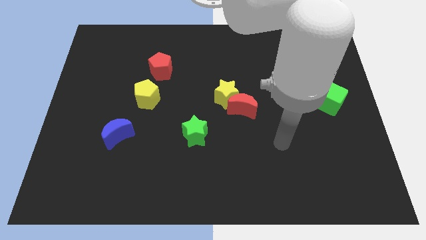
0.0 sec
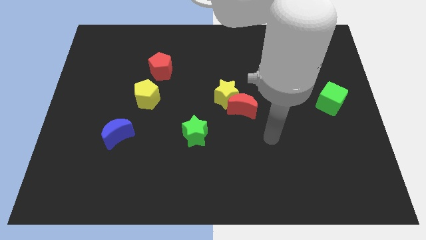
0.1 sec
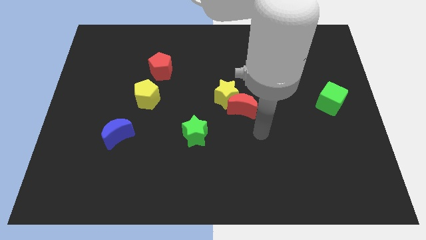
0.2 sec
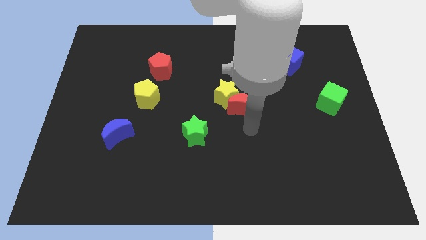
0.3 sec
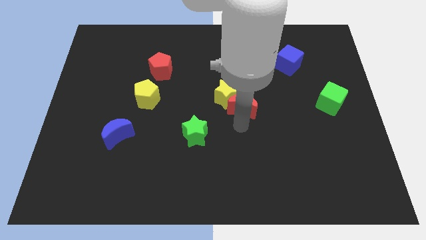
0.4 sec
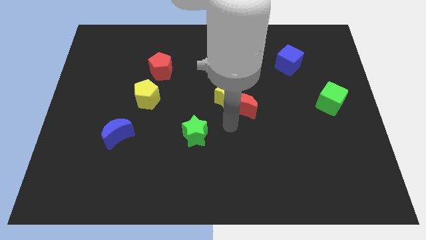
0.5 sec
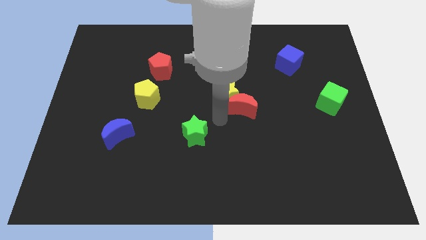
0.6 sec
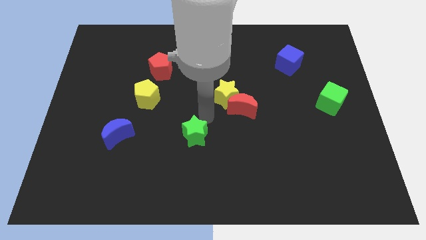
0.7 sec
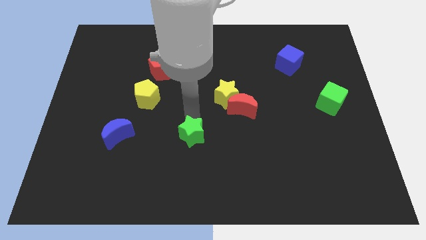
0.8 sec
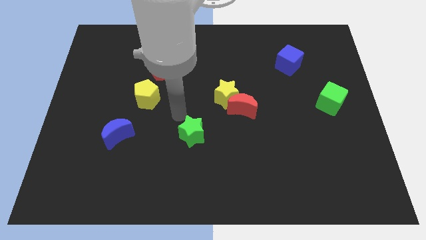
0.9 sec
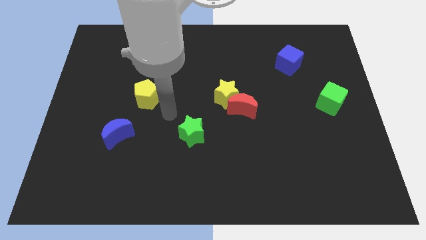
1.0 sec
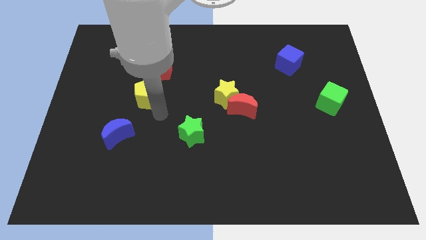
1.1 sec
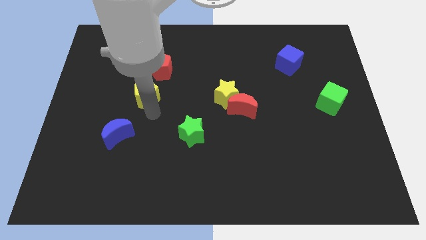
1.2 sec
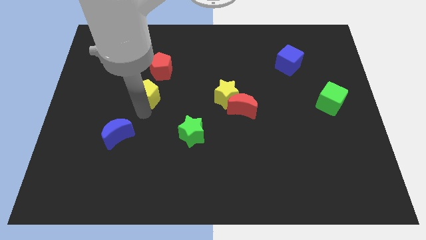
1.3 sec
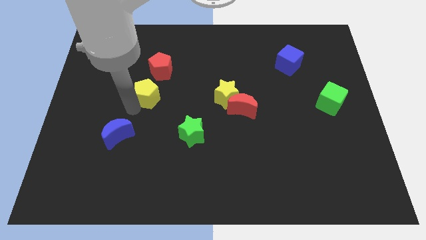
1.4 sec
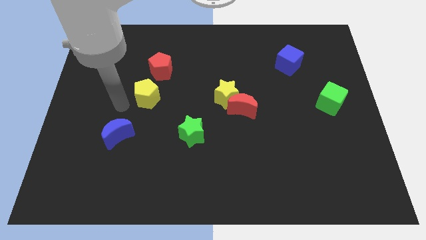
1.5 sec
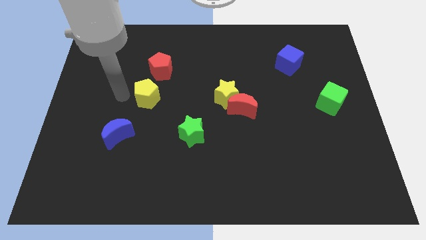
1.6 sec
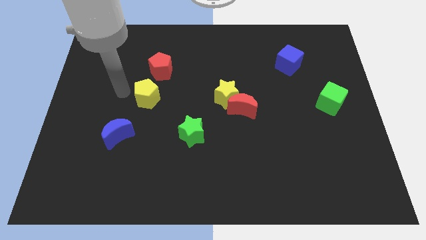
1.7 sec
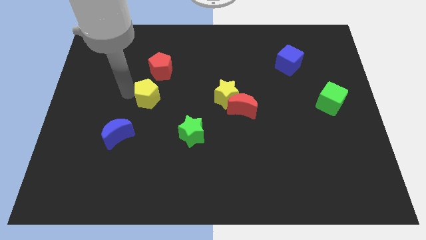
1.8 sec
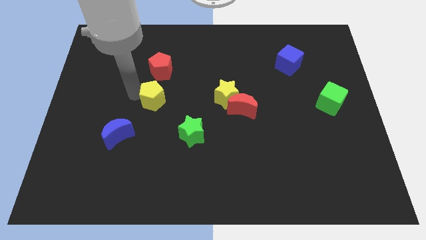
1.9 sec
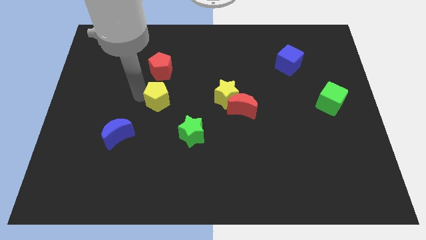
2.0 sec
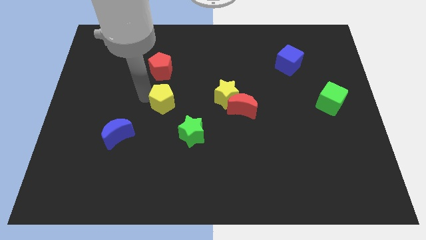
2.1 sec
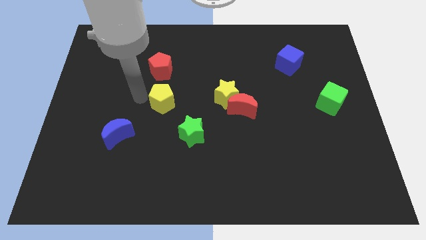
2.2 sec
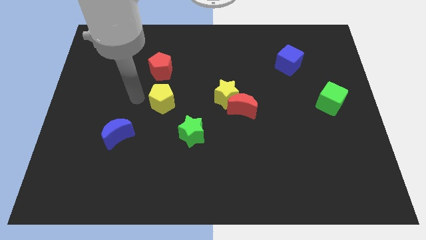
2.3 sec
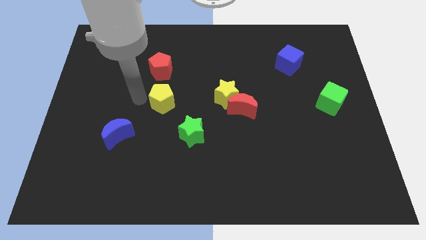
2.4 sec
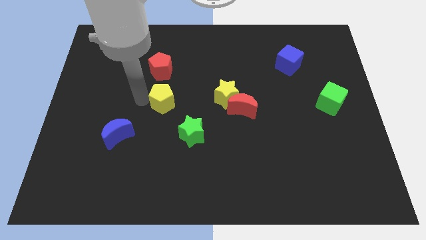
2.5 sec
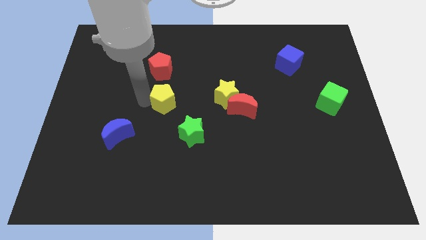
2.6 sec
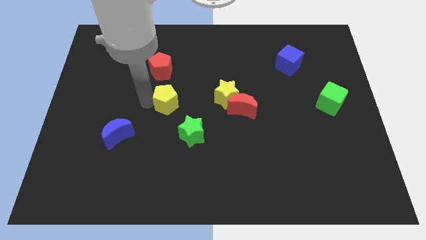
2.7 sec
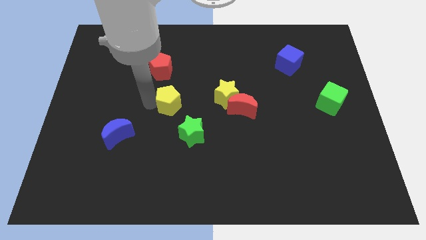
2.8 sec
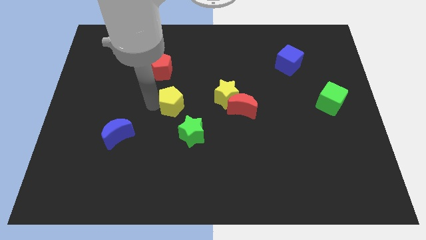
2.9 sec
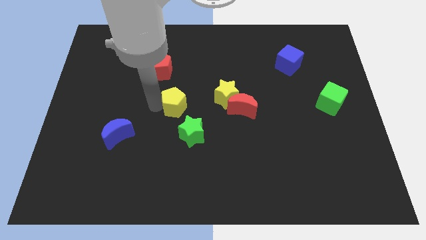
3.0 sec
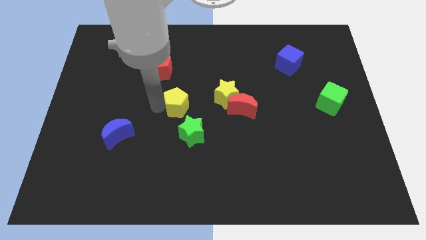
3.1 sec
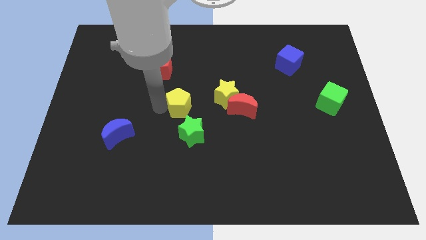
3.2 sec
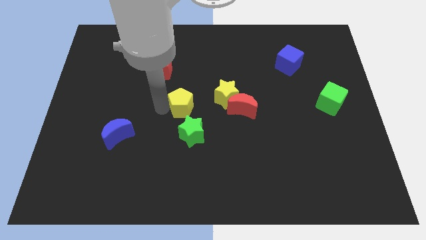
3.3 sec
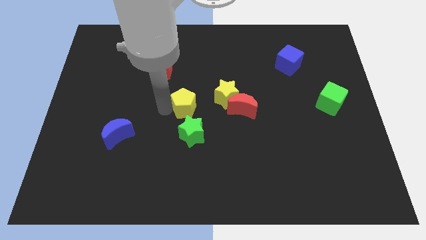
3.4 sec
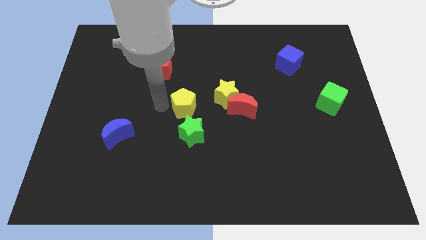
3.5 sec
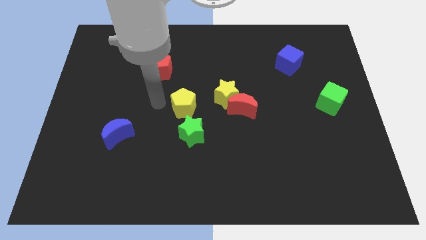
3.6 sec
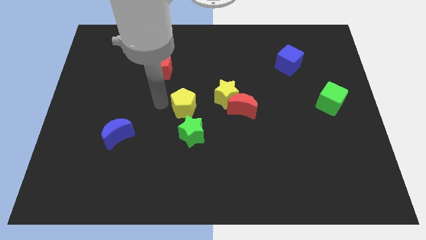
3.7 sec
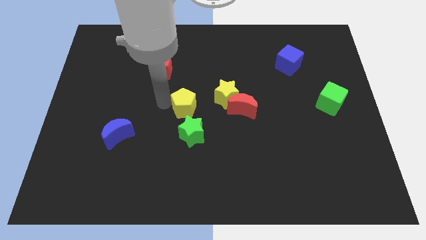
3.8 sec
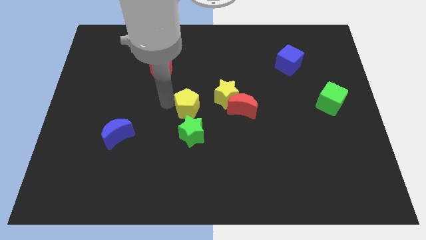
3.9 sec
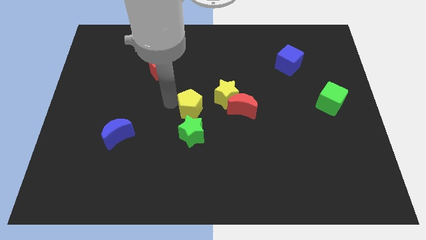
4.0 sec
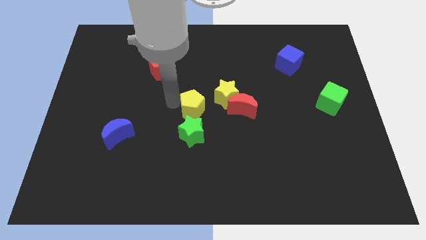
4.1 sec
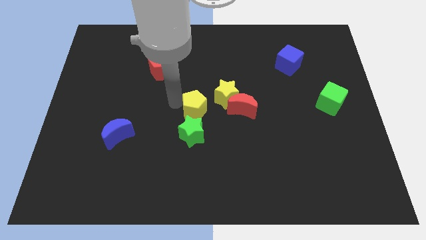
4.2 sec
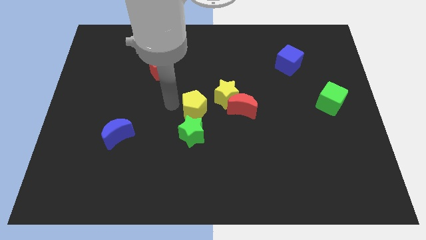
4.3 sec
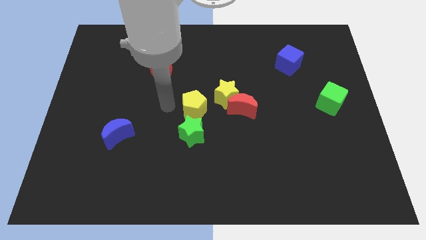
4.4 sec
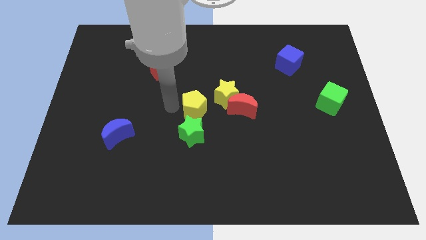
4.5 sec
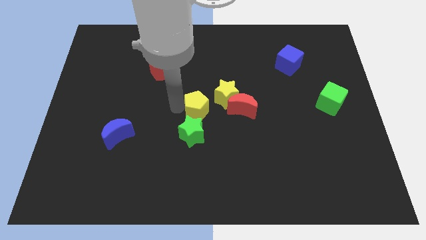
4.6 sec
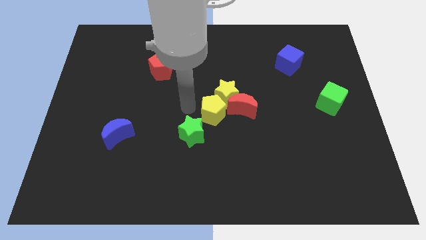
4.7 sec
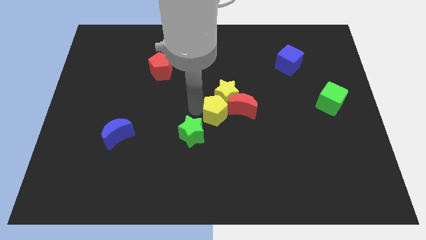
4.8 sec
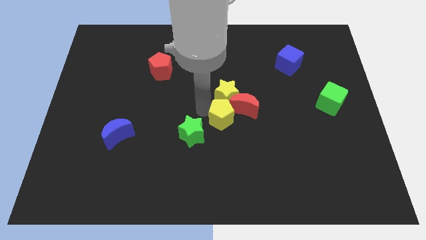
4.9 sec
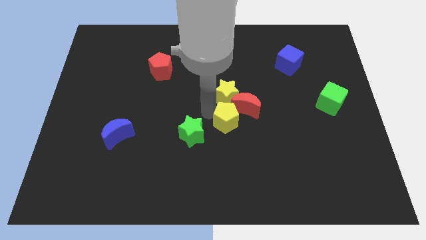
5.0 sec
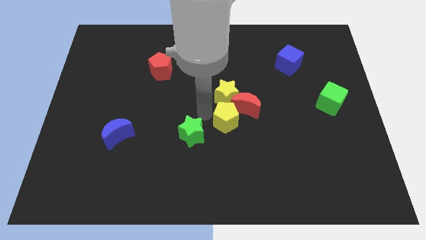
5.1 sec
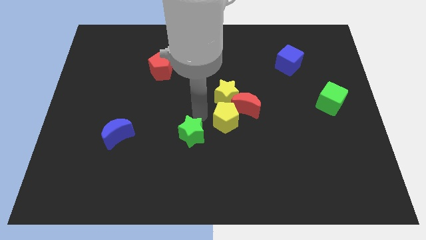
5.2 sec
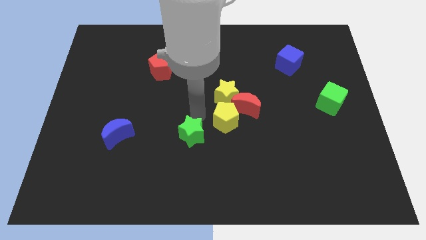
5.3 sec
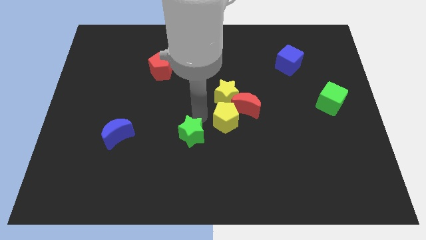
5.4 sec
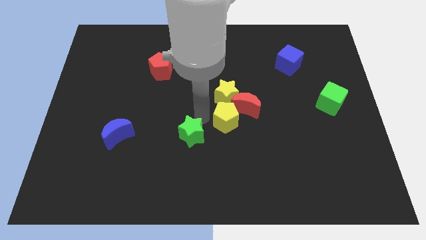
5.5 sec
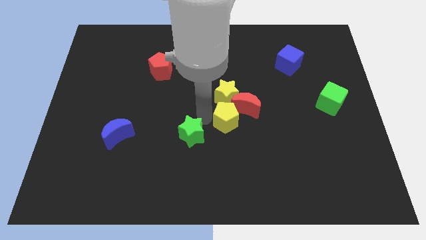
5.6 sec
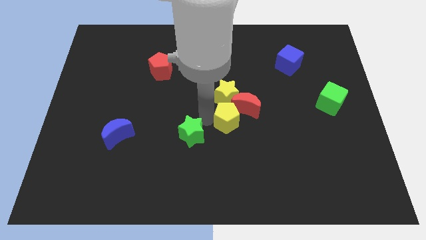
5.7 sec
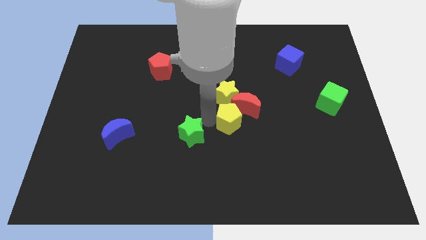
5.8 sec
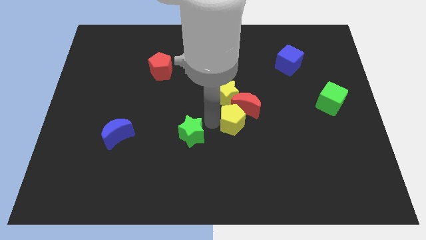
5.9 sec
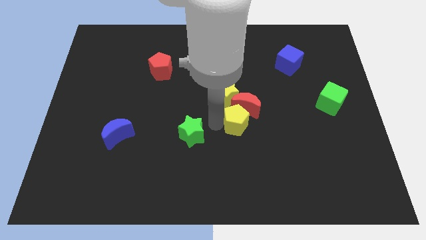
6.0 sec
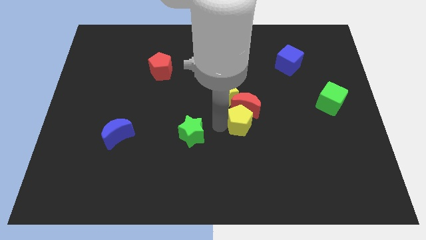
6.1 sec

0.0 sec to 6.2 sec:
put the yellow pentagon diagonally down and to the right of the red moon

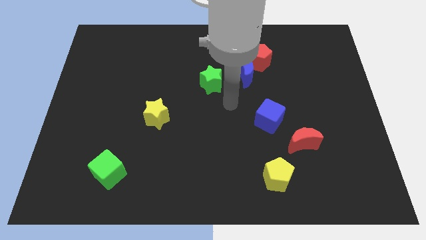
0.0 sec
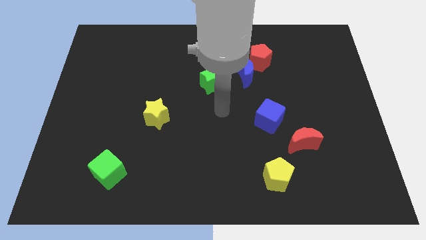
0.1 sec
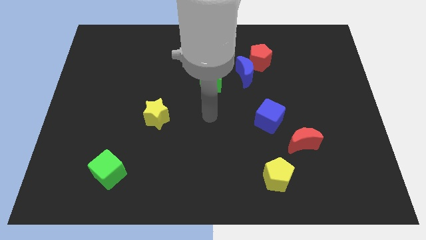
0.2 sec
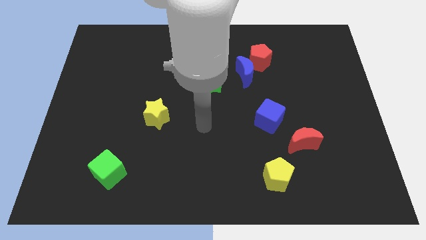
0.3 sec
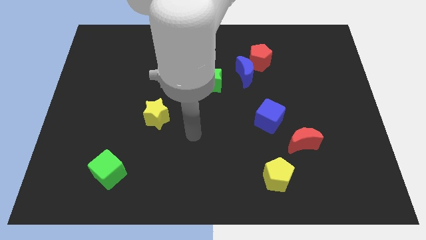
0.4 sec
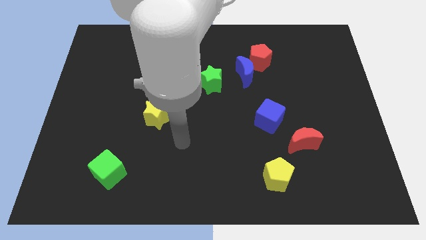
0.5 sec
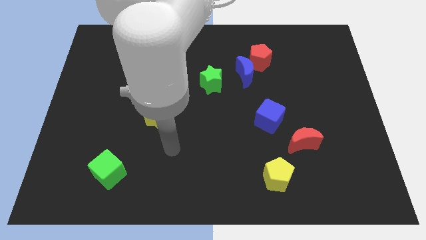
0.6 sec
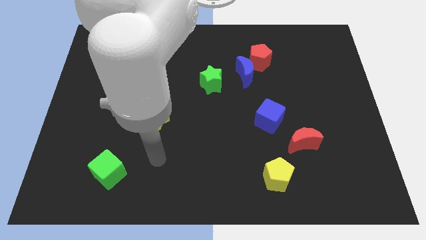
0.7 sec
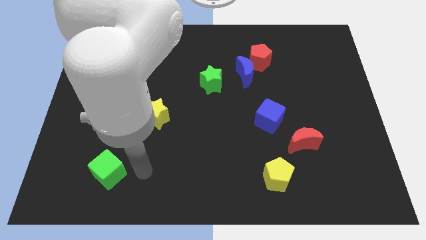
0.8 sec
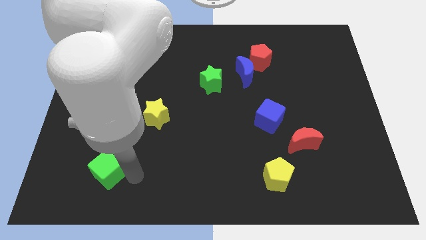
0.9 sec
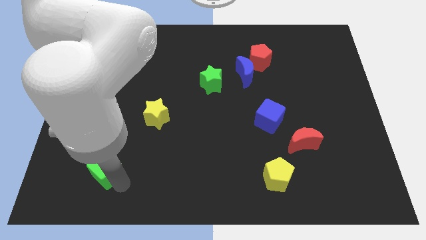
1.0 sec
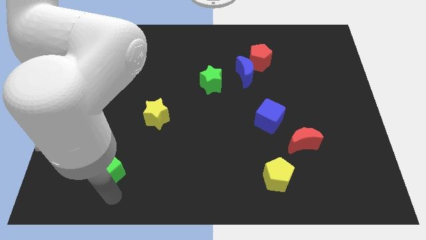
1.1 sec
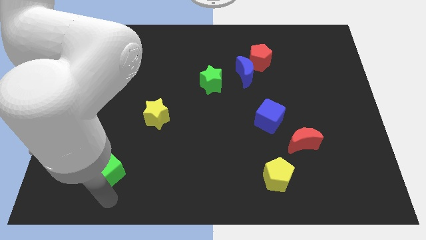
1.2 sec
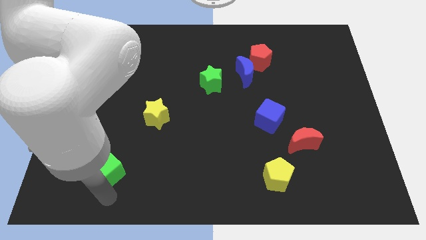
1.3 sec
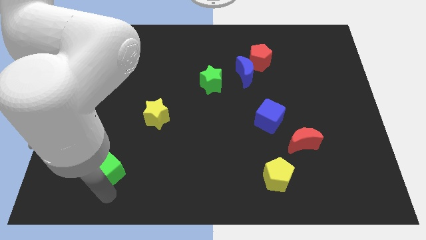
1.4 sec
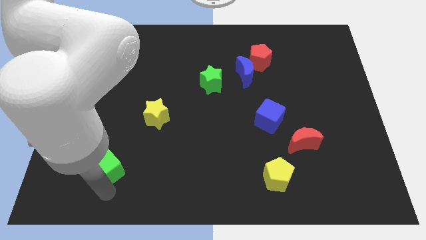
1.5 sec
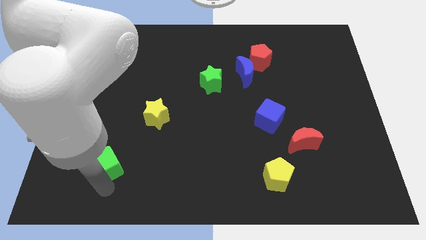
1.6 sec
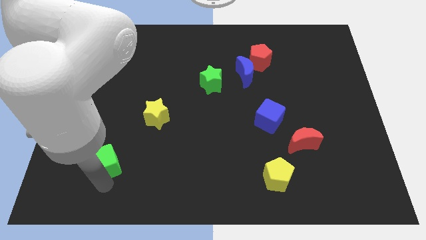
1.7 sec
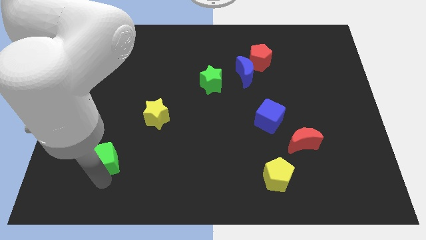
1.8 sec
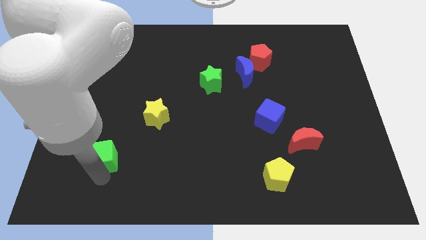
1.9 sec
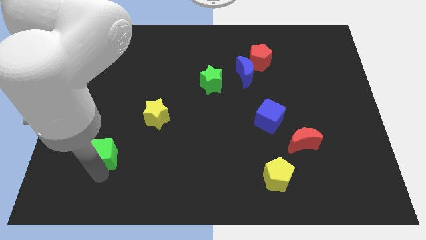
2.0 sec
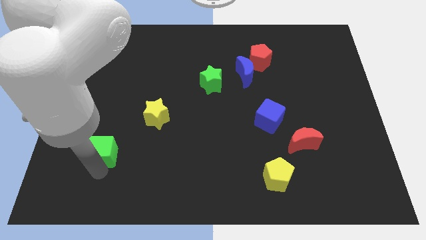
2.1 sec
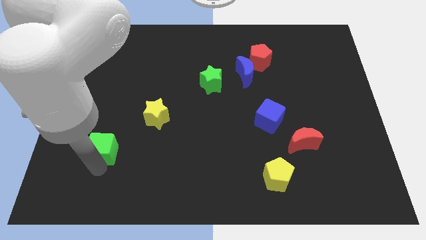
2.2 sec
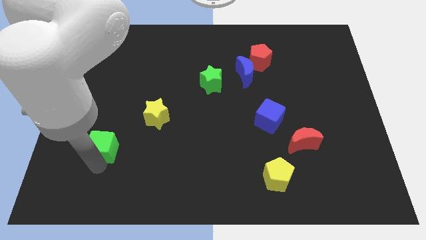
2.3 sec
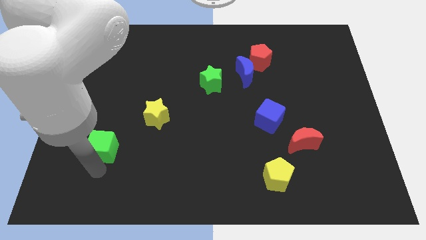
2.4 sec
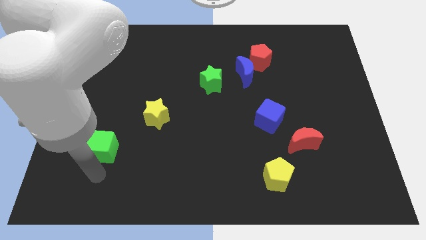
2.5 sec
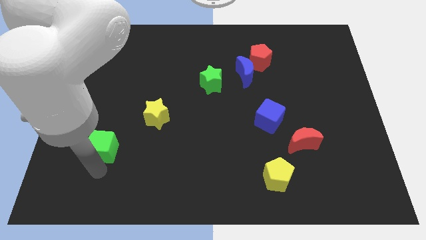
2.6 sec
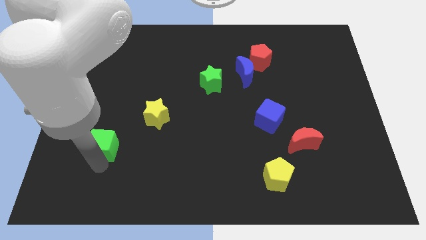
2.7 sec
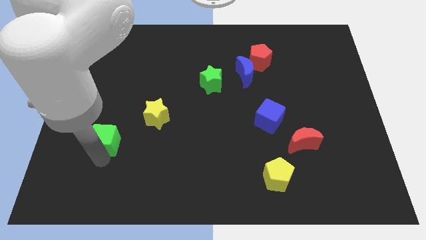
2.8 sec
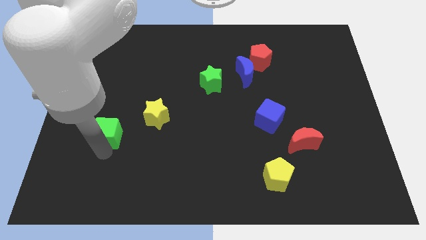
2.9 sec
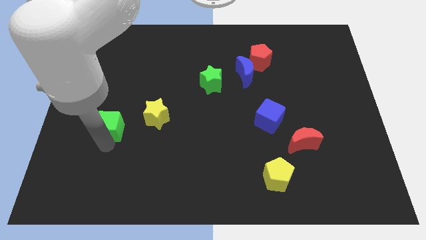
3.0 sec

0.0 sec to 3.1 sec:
move the green cube just left of the yellow star
